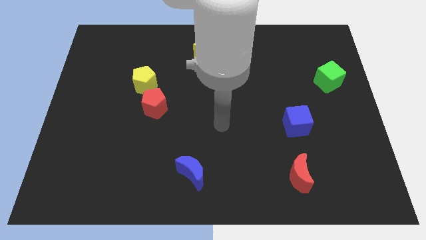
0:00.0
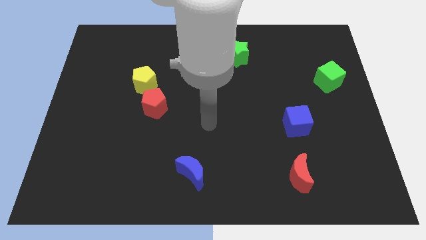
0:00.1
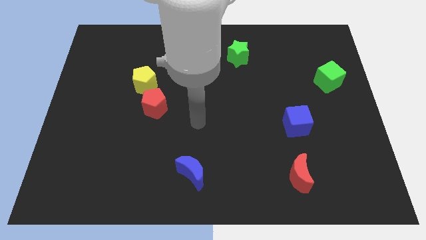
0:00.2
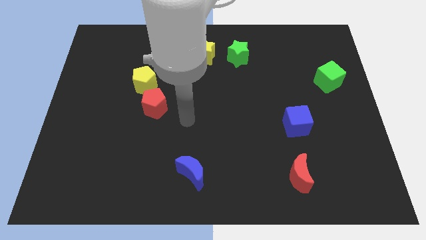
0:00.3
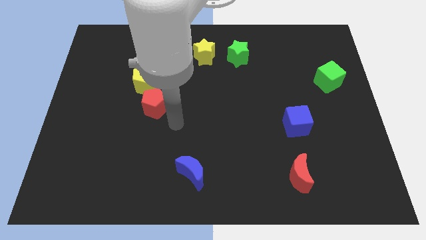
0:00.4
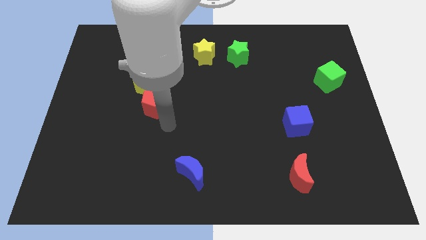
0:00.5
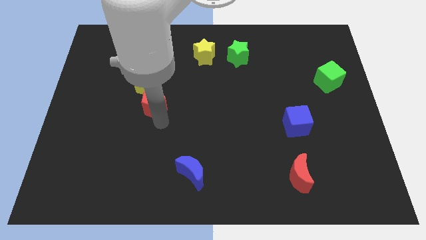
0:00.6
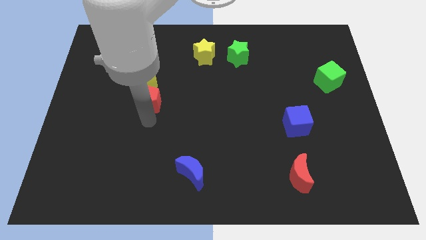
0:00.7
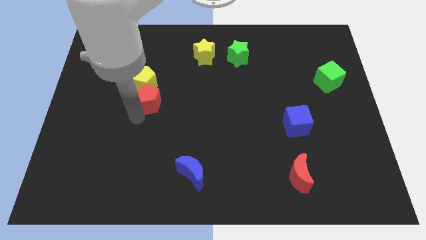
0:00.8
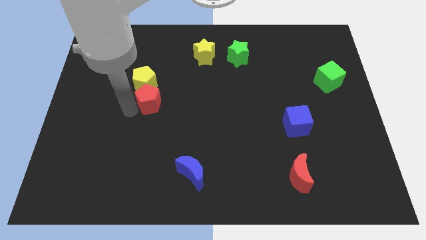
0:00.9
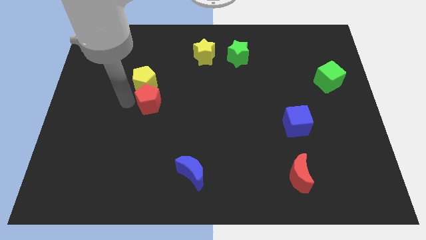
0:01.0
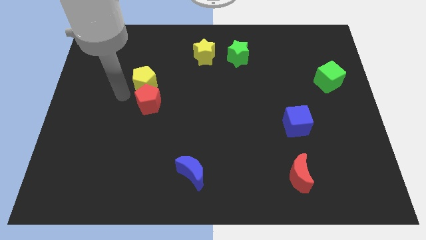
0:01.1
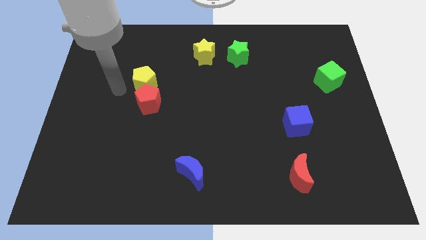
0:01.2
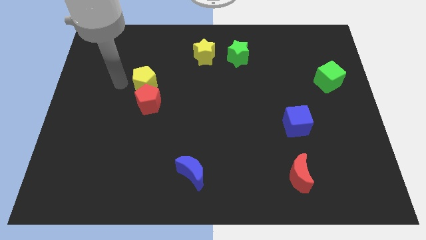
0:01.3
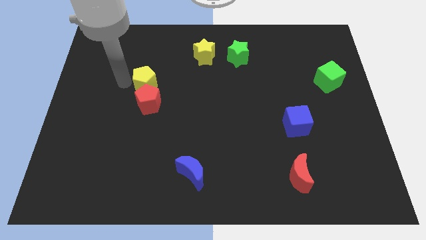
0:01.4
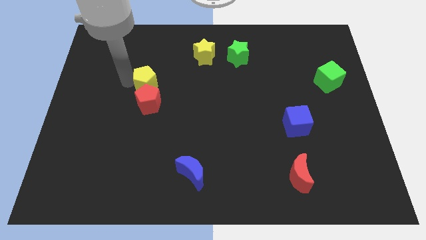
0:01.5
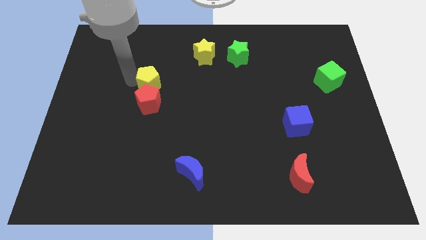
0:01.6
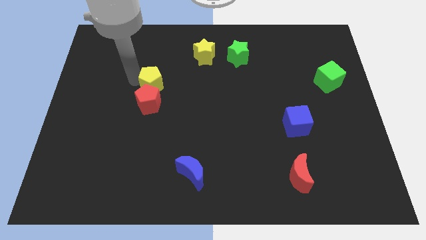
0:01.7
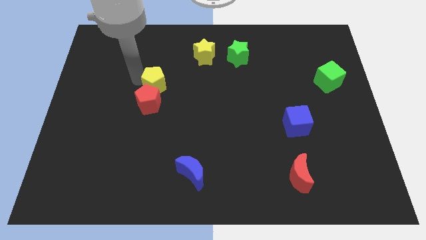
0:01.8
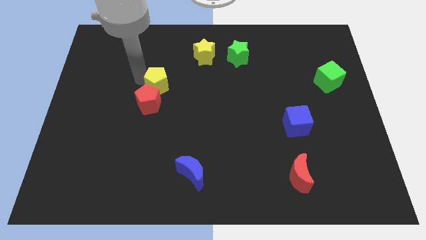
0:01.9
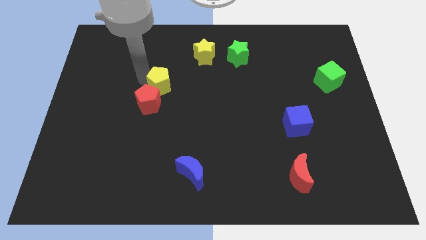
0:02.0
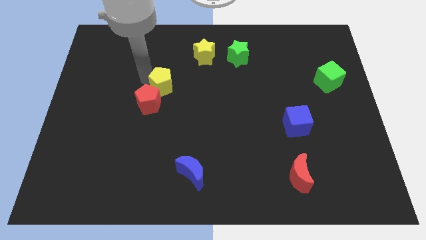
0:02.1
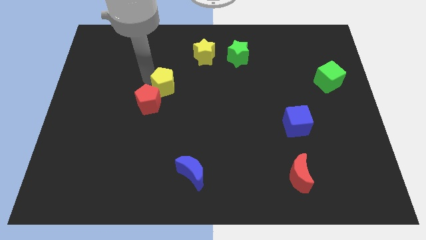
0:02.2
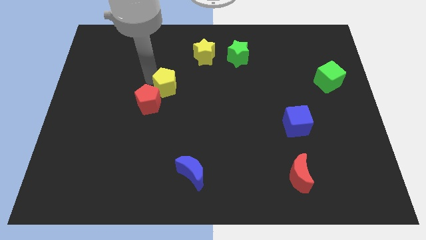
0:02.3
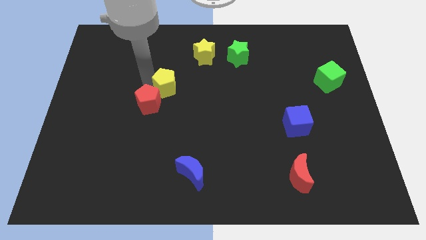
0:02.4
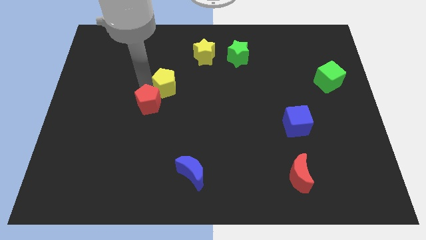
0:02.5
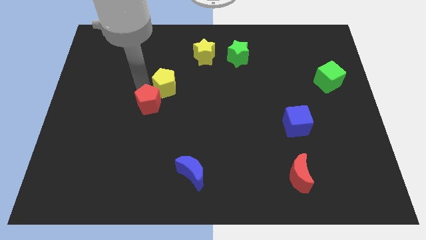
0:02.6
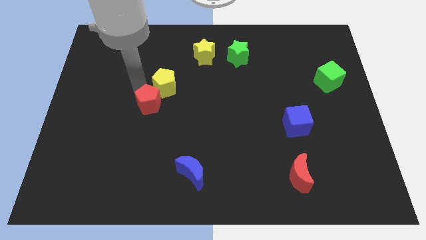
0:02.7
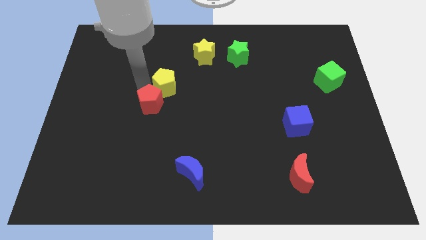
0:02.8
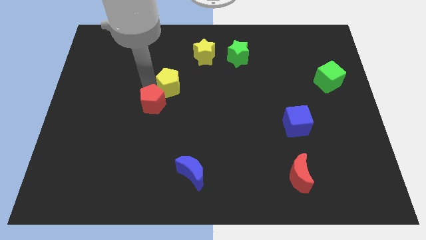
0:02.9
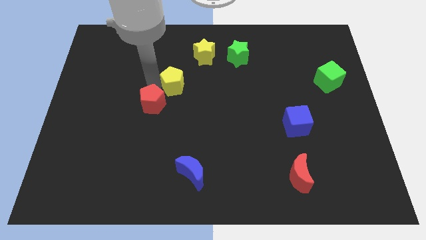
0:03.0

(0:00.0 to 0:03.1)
move the yellow pentagon slightly to the right

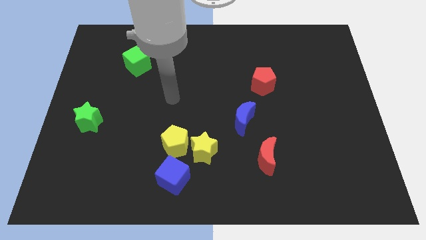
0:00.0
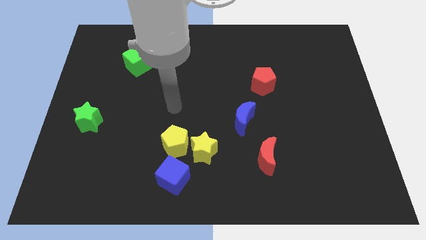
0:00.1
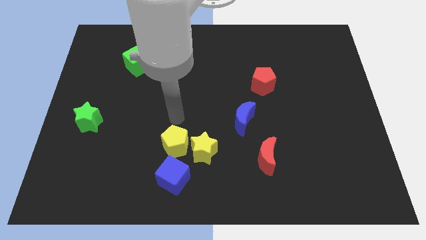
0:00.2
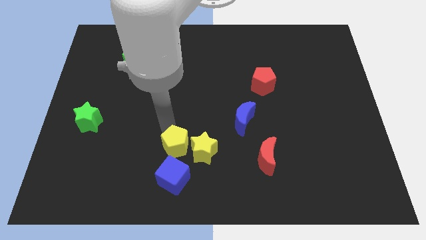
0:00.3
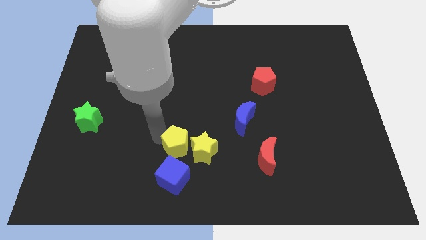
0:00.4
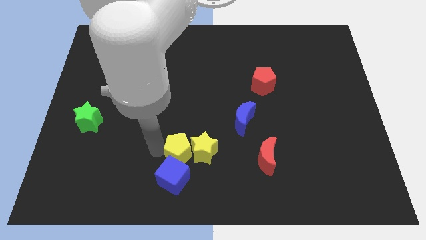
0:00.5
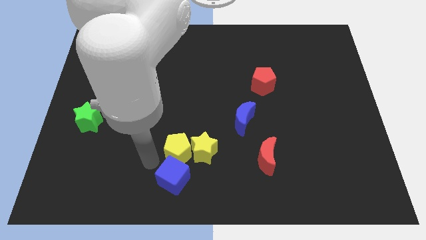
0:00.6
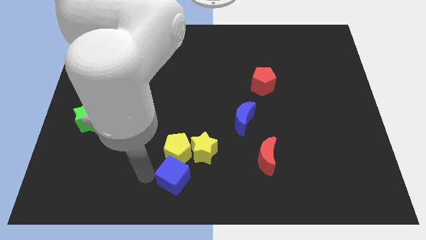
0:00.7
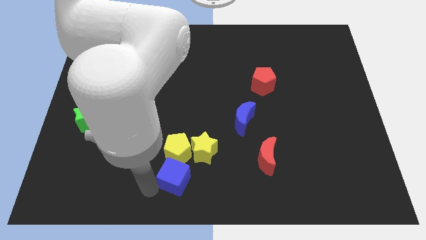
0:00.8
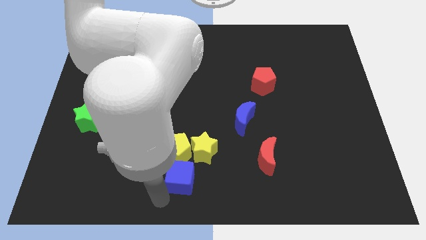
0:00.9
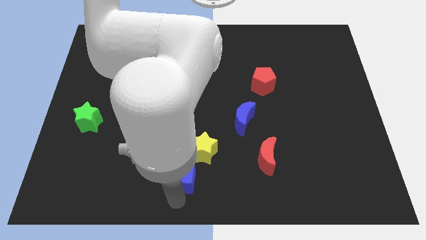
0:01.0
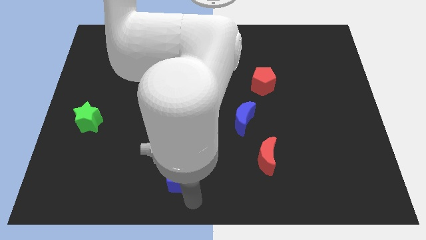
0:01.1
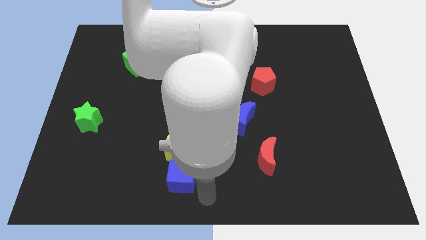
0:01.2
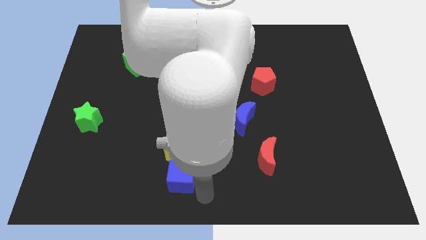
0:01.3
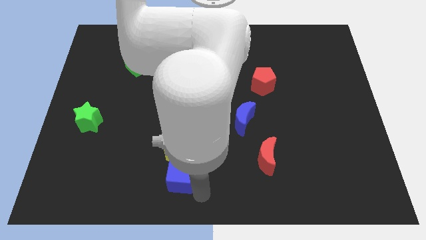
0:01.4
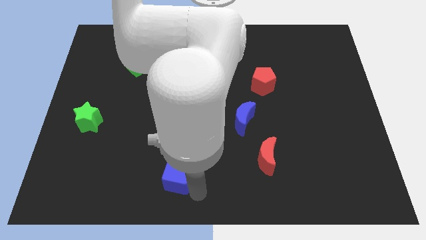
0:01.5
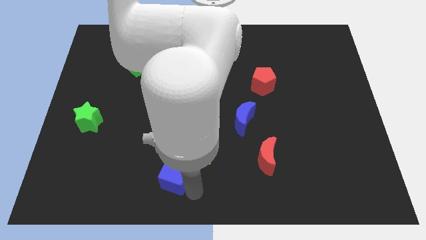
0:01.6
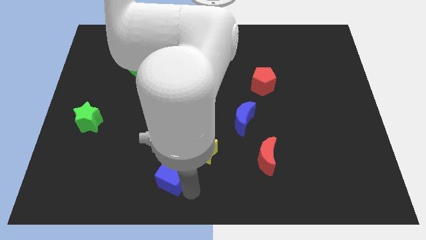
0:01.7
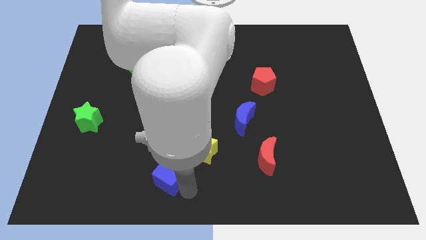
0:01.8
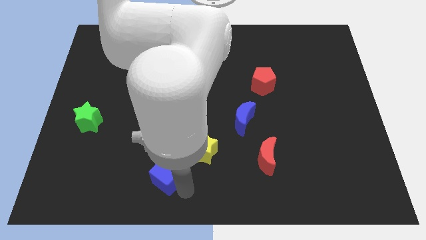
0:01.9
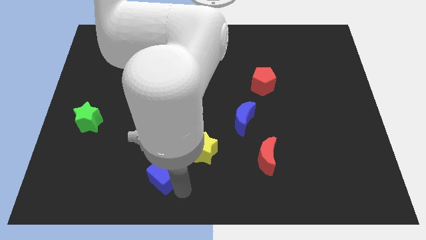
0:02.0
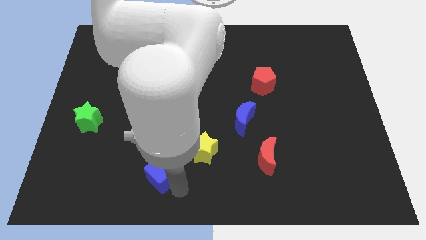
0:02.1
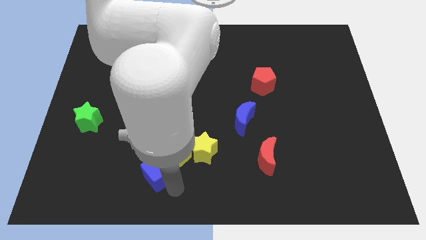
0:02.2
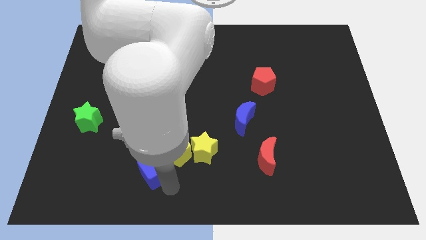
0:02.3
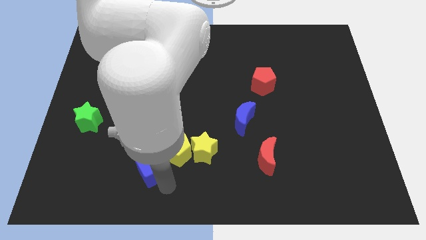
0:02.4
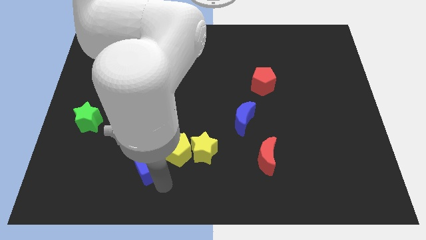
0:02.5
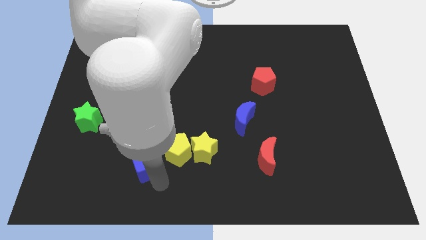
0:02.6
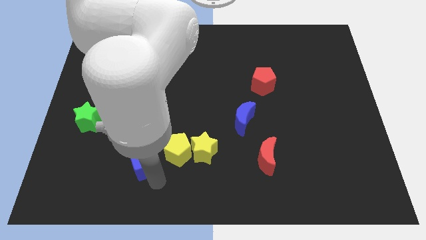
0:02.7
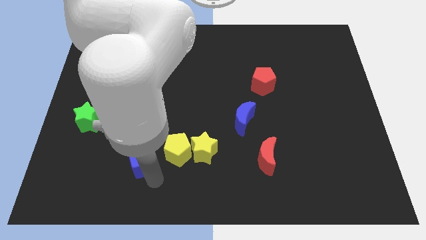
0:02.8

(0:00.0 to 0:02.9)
slightly push the blue cube up and to the left diagonally

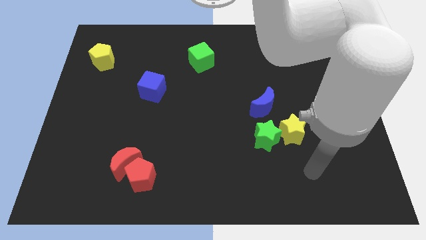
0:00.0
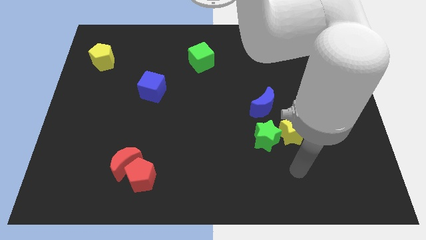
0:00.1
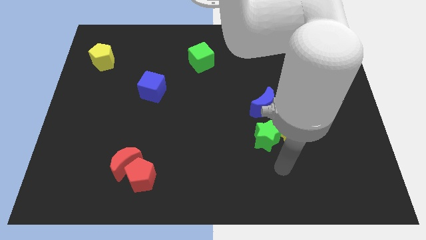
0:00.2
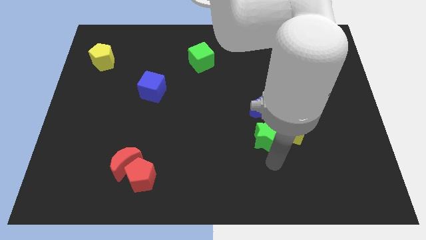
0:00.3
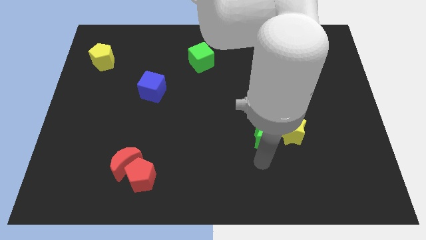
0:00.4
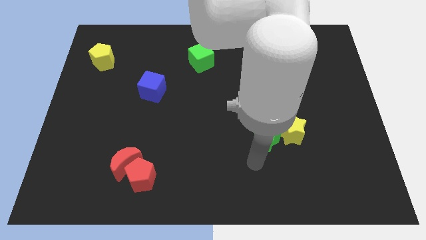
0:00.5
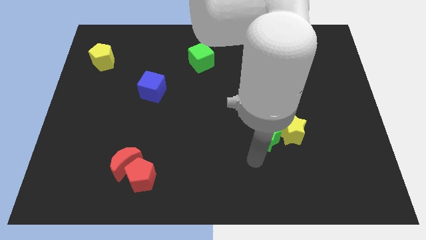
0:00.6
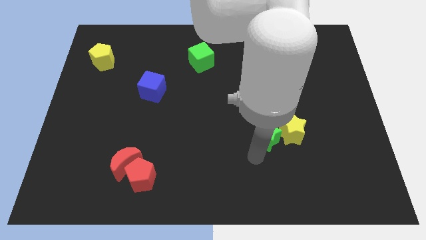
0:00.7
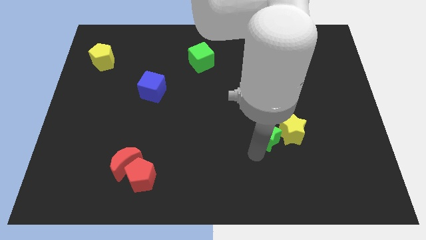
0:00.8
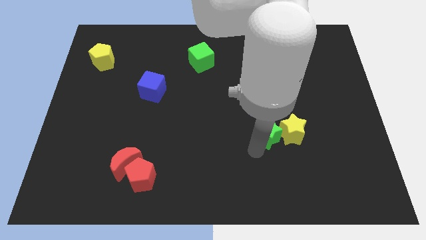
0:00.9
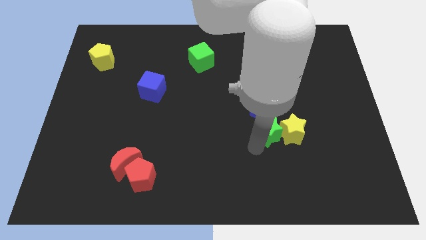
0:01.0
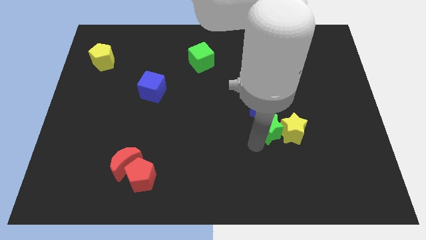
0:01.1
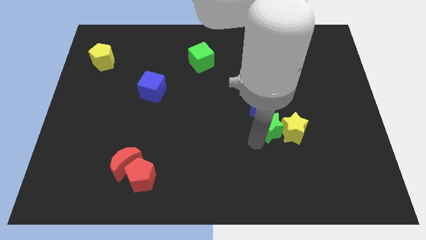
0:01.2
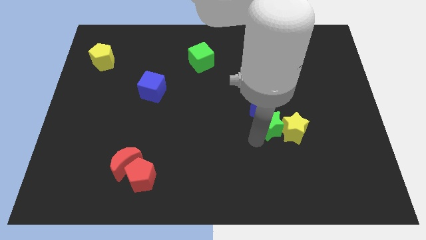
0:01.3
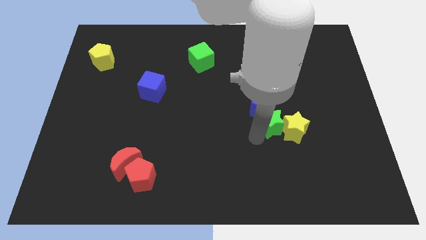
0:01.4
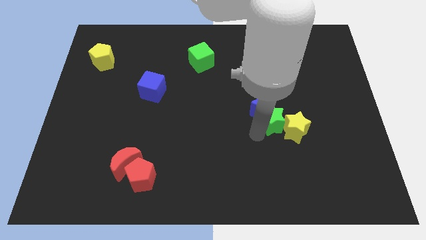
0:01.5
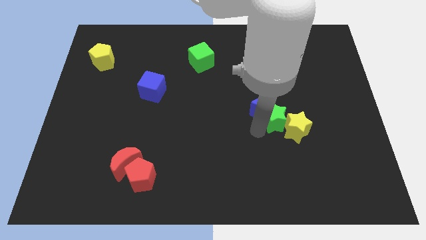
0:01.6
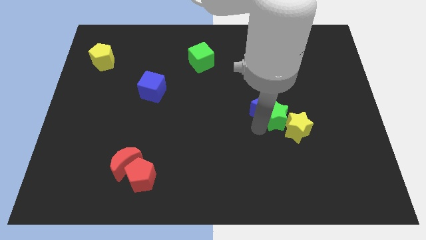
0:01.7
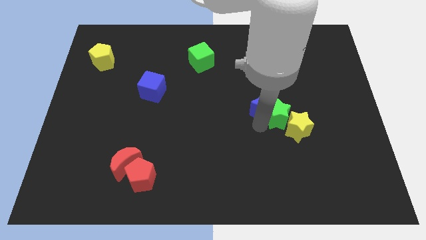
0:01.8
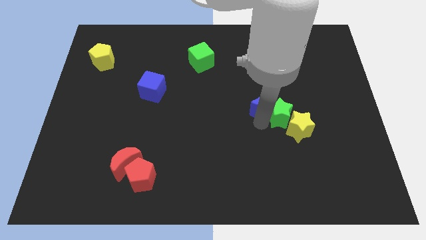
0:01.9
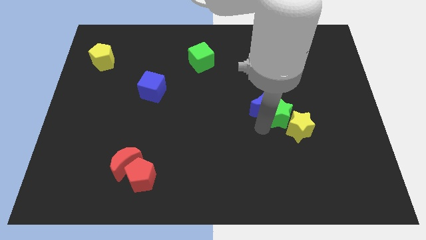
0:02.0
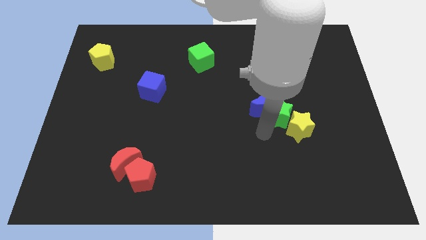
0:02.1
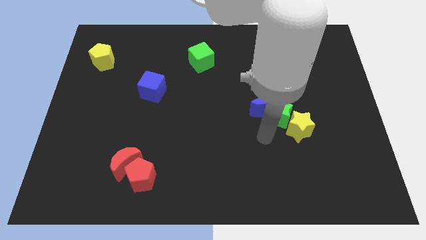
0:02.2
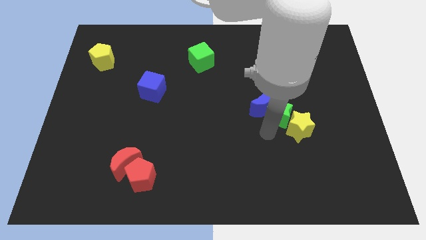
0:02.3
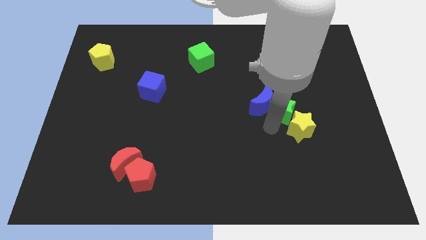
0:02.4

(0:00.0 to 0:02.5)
slide the green star a little bit up and right
